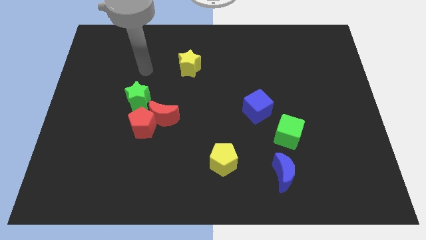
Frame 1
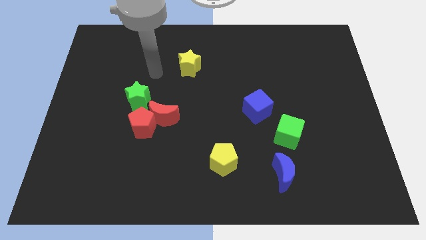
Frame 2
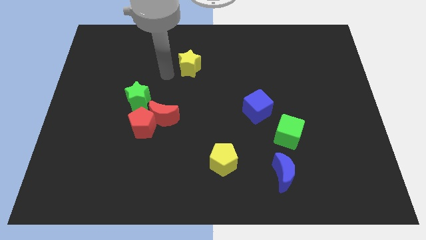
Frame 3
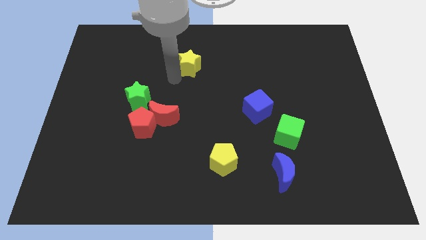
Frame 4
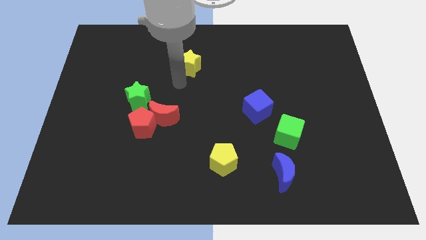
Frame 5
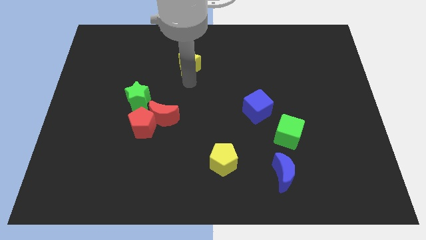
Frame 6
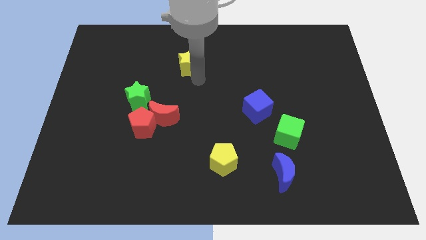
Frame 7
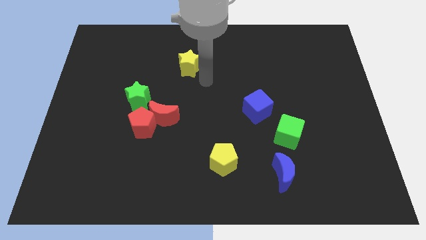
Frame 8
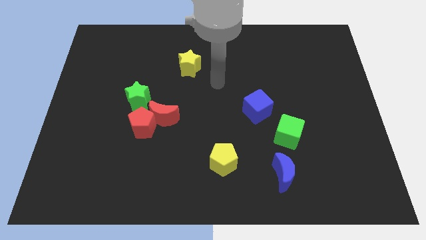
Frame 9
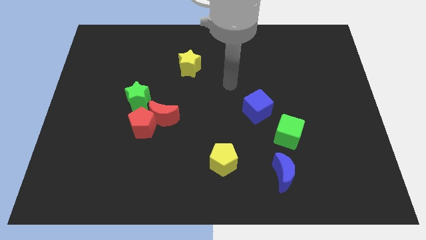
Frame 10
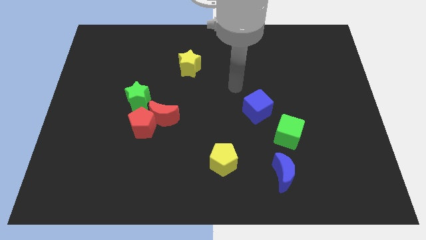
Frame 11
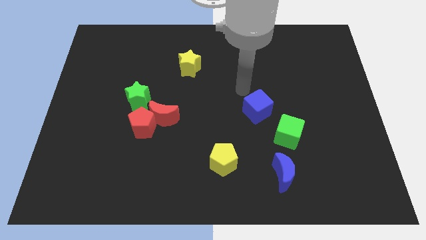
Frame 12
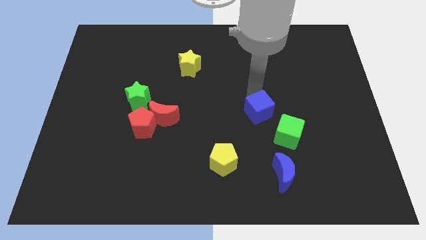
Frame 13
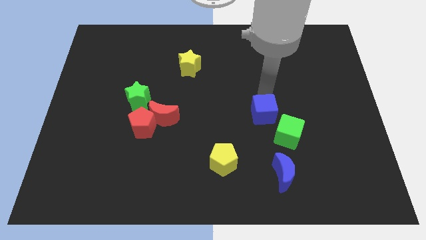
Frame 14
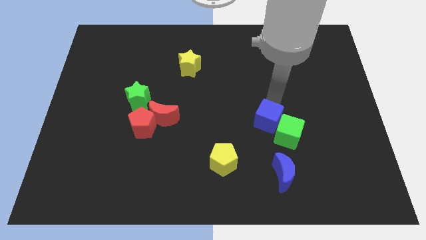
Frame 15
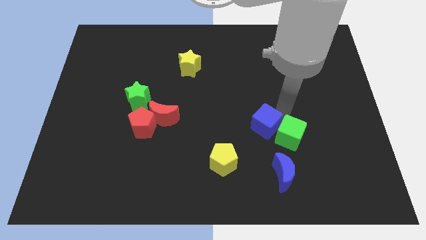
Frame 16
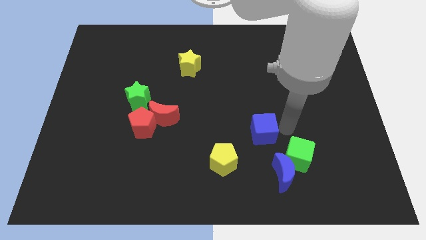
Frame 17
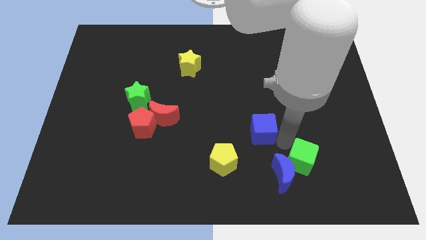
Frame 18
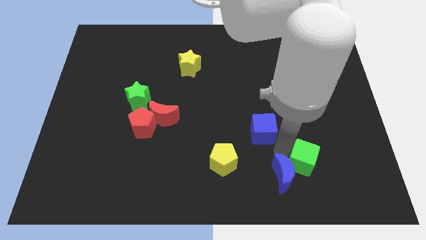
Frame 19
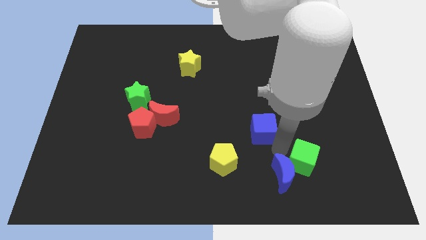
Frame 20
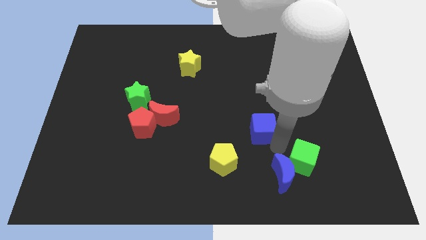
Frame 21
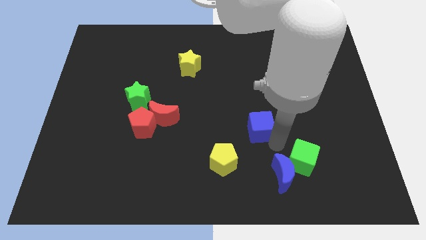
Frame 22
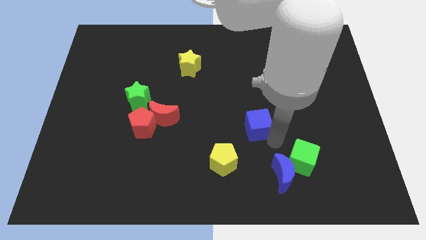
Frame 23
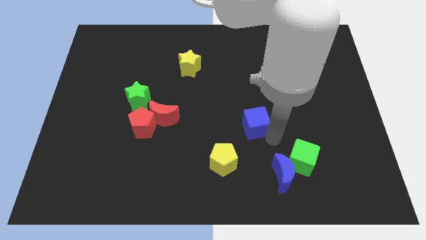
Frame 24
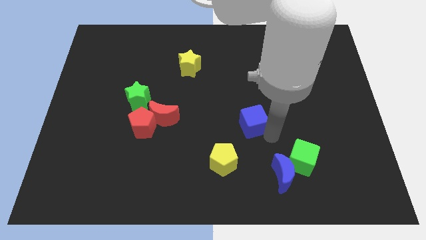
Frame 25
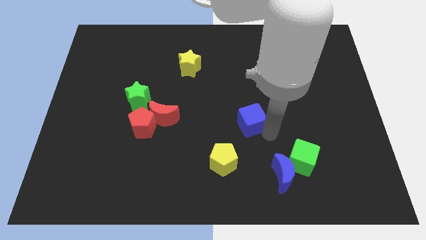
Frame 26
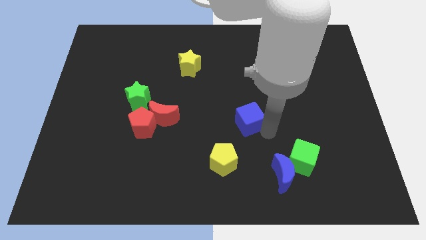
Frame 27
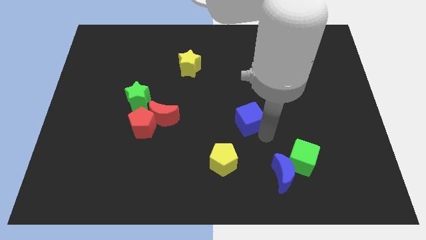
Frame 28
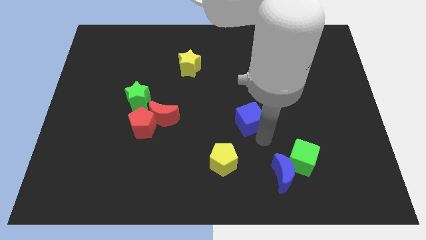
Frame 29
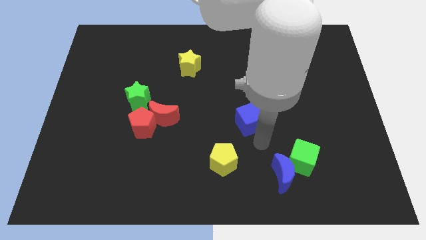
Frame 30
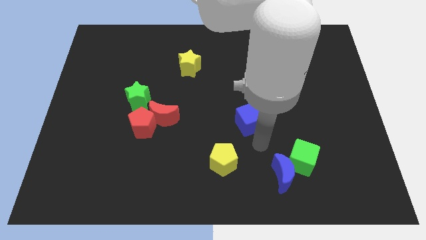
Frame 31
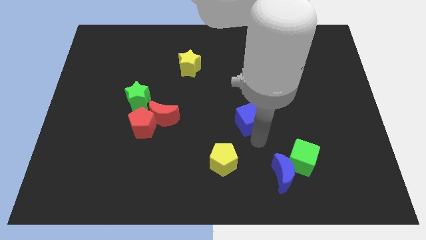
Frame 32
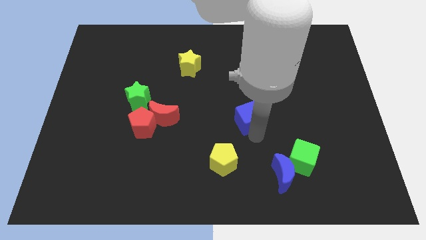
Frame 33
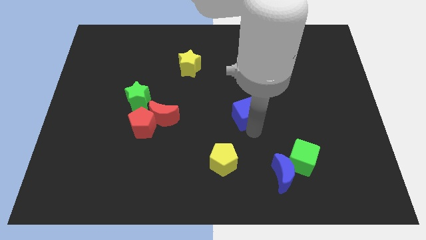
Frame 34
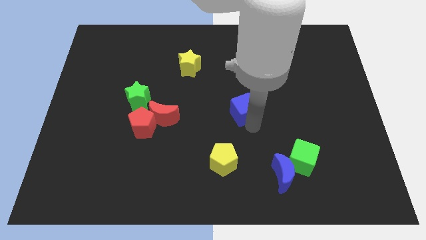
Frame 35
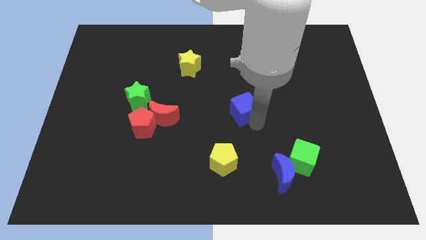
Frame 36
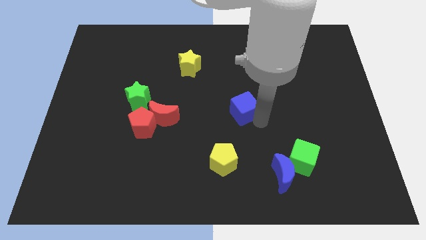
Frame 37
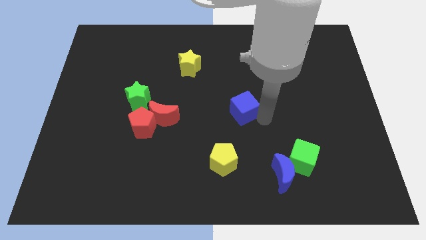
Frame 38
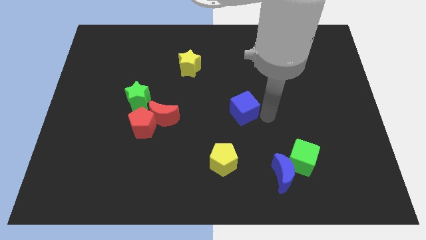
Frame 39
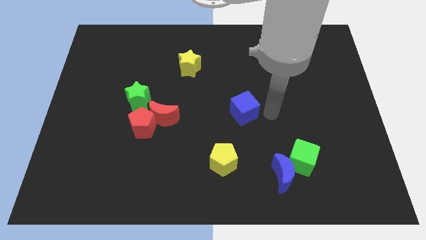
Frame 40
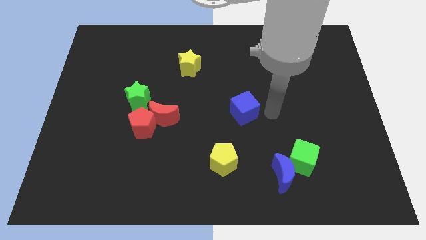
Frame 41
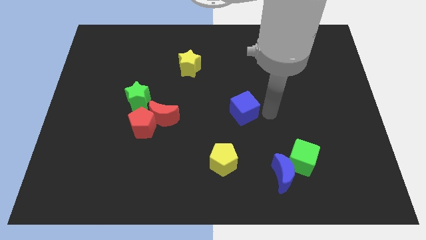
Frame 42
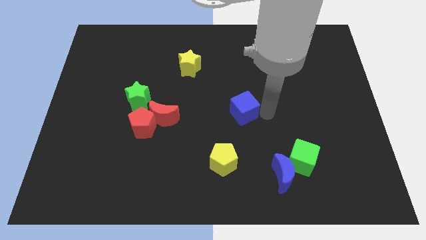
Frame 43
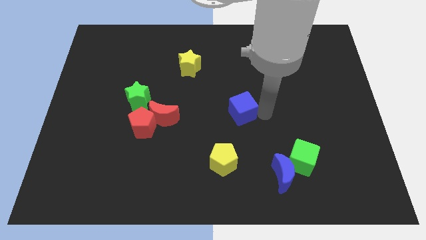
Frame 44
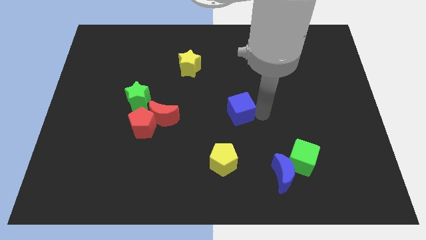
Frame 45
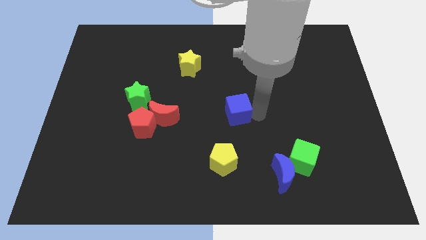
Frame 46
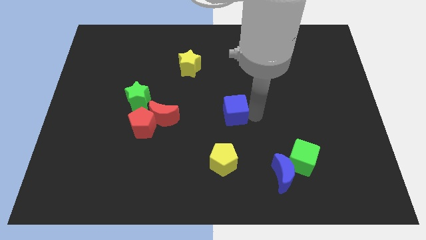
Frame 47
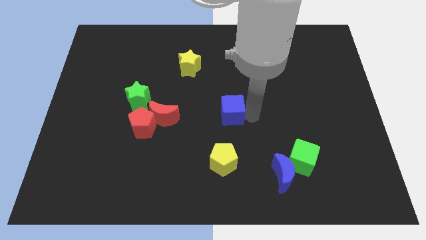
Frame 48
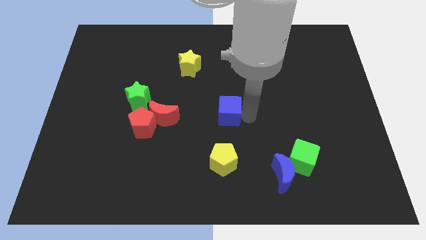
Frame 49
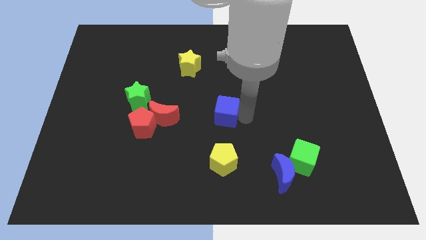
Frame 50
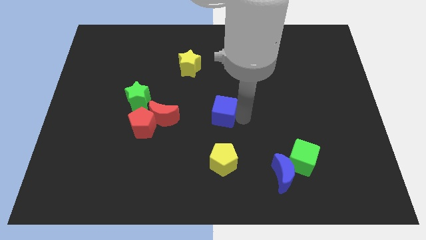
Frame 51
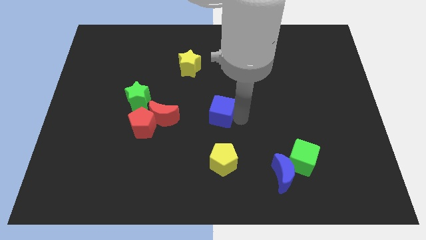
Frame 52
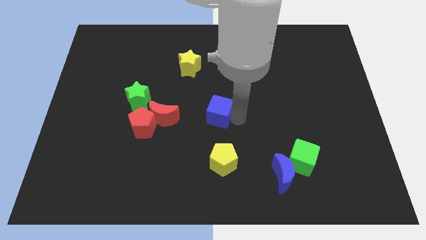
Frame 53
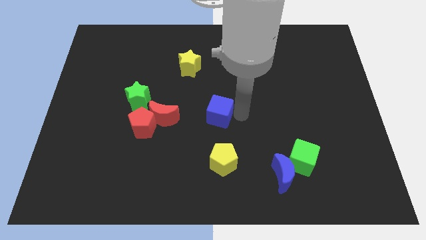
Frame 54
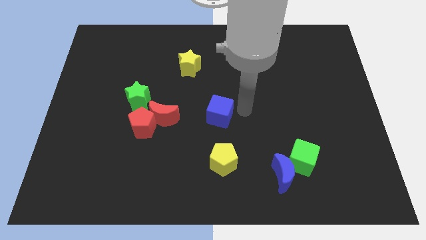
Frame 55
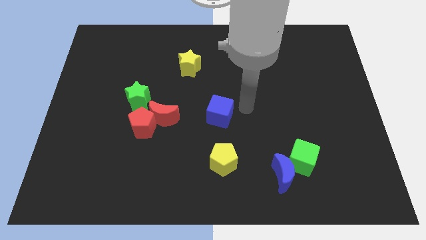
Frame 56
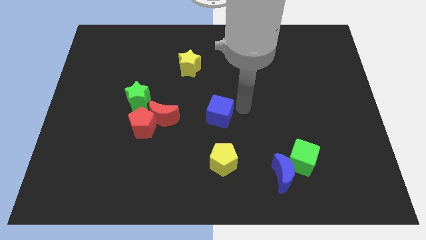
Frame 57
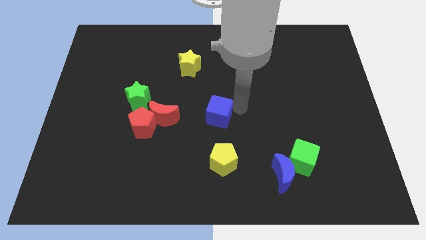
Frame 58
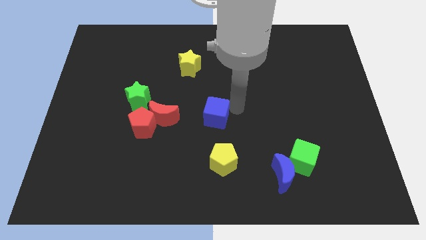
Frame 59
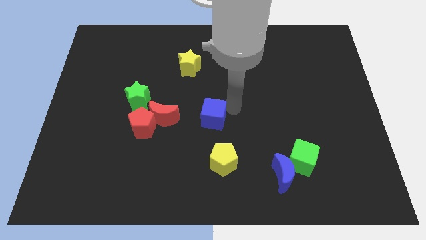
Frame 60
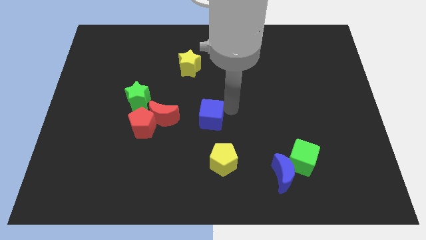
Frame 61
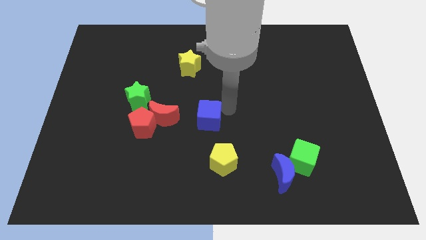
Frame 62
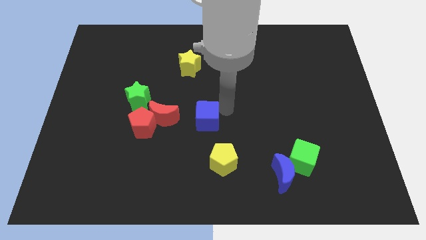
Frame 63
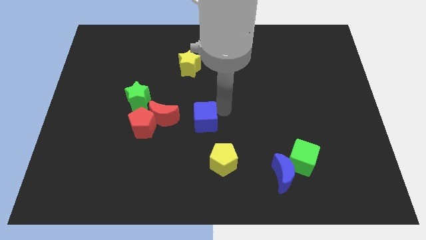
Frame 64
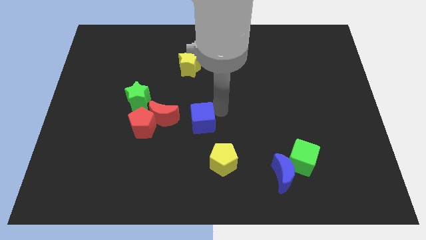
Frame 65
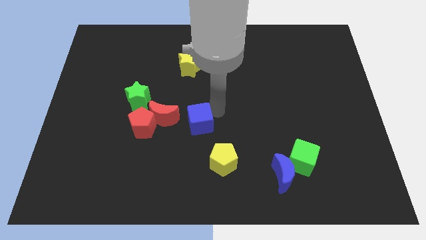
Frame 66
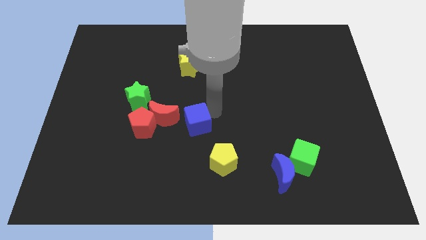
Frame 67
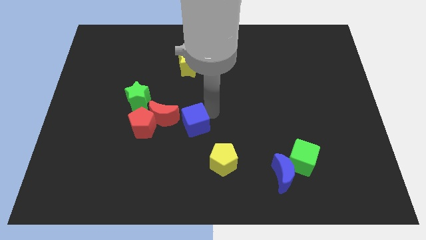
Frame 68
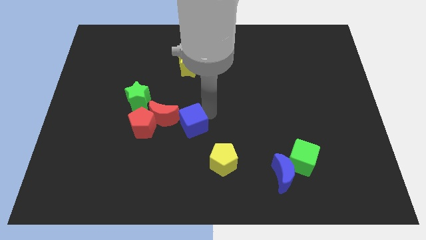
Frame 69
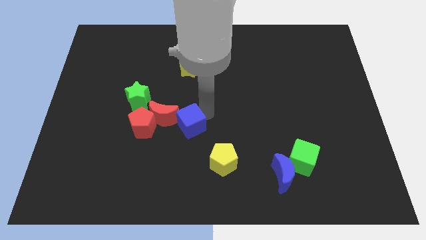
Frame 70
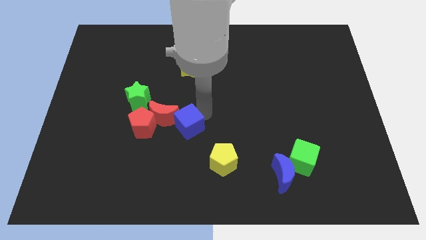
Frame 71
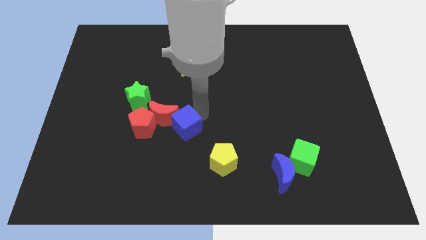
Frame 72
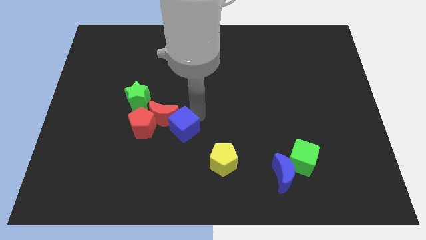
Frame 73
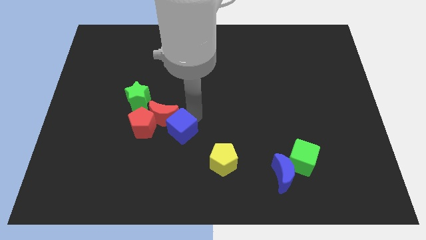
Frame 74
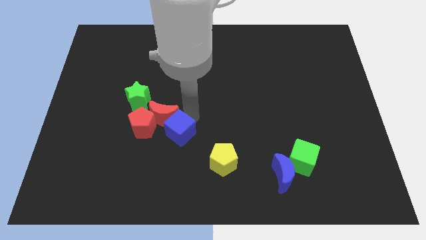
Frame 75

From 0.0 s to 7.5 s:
move the blue cube to the bottom right of the red pentagon
